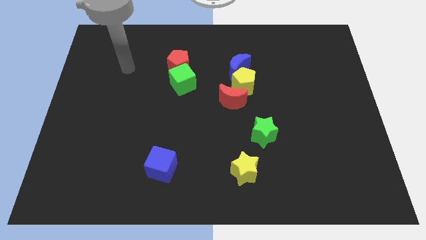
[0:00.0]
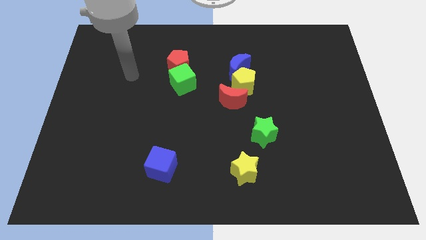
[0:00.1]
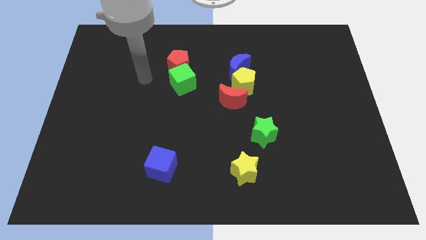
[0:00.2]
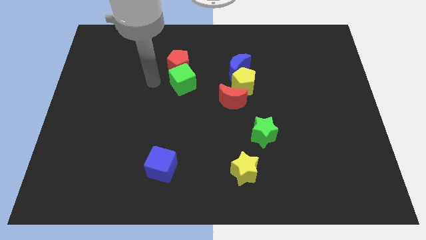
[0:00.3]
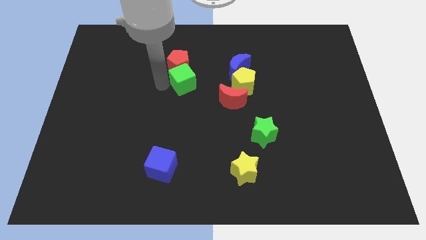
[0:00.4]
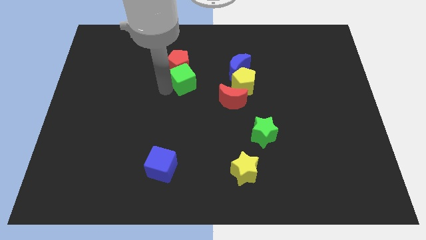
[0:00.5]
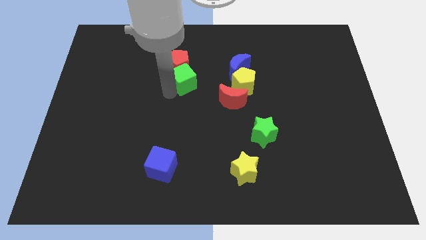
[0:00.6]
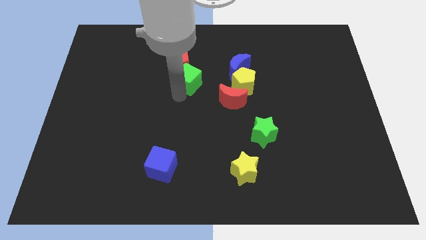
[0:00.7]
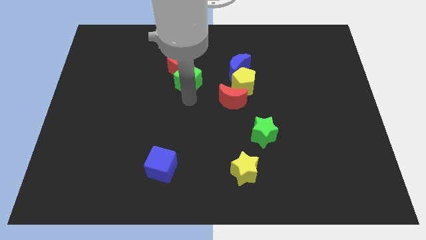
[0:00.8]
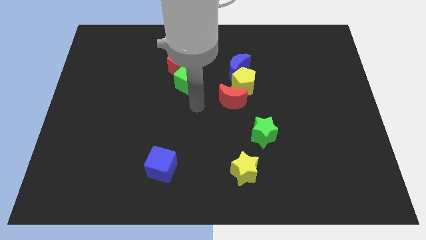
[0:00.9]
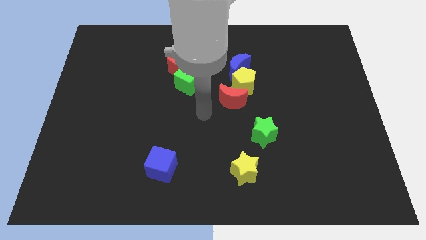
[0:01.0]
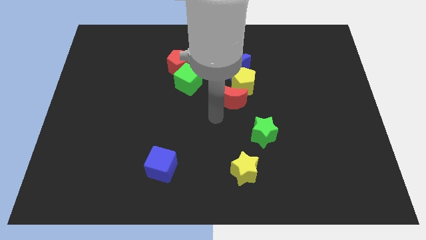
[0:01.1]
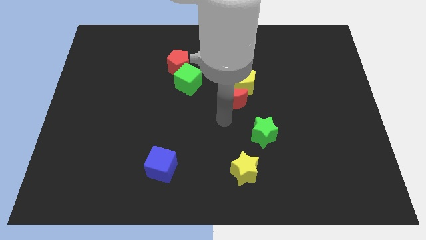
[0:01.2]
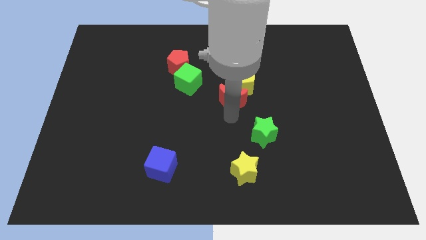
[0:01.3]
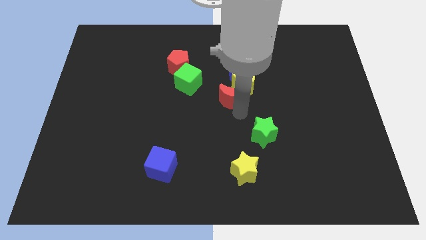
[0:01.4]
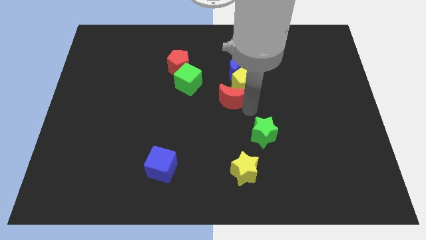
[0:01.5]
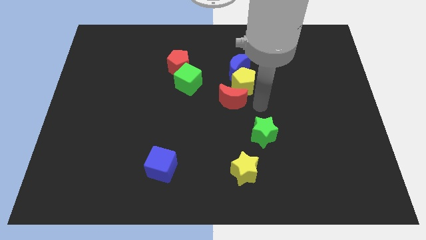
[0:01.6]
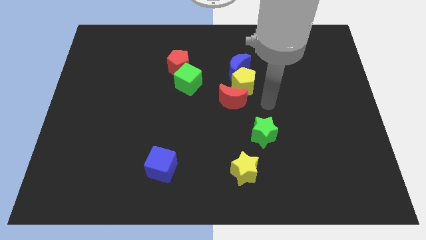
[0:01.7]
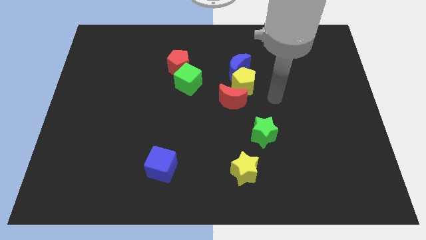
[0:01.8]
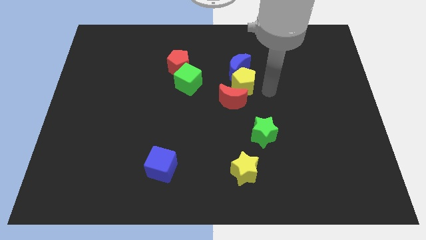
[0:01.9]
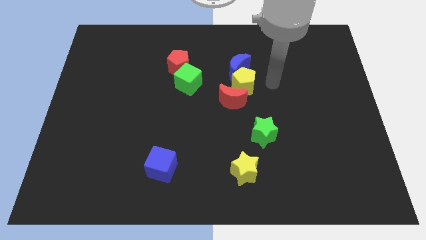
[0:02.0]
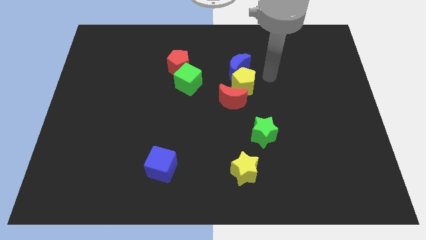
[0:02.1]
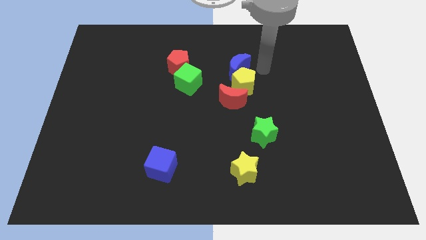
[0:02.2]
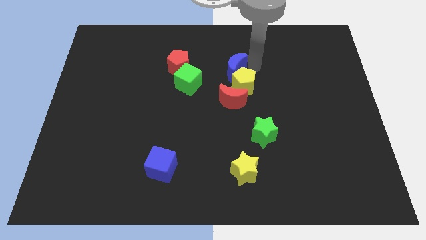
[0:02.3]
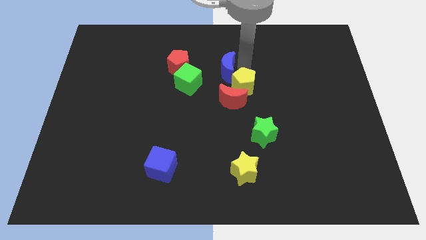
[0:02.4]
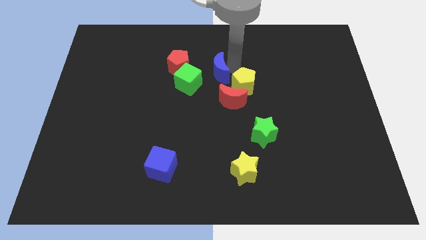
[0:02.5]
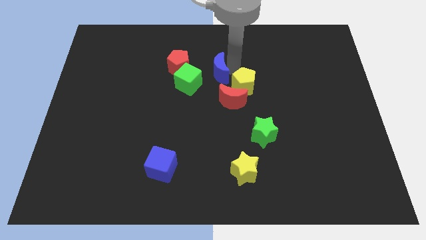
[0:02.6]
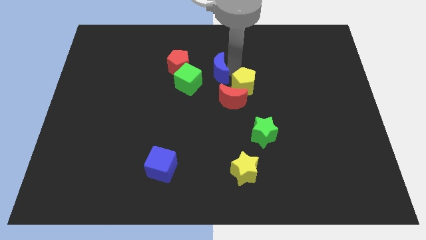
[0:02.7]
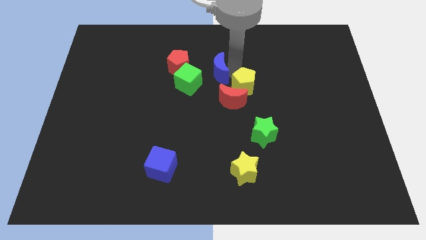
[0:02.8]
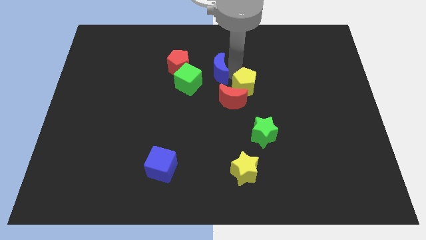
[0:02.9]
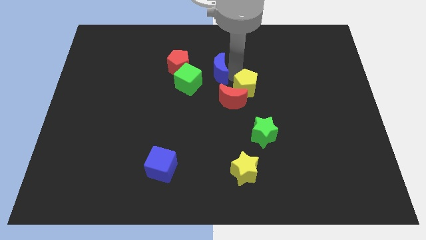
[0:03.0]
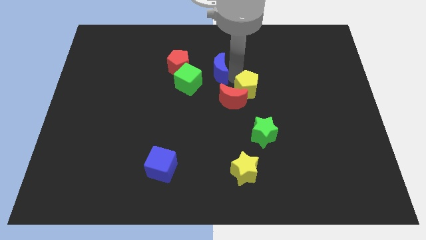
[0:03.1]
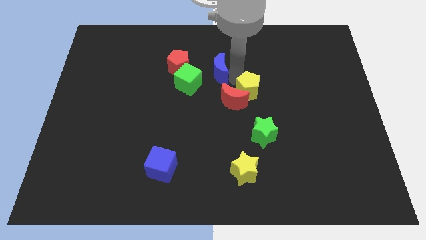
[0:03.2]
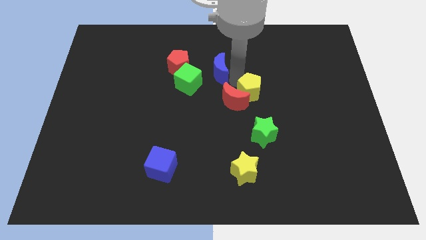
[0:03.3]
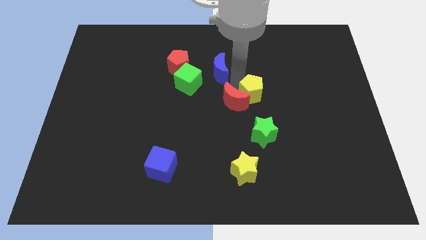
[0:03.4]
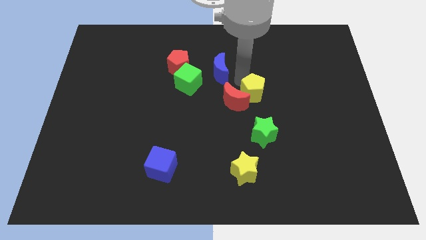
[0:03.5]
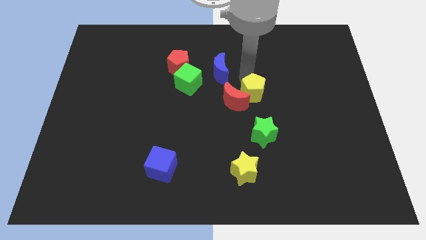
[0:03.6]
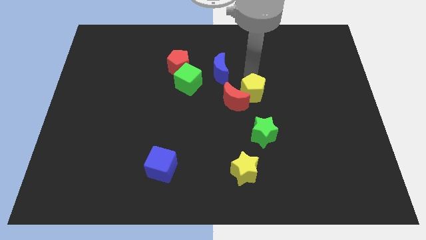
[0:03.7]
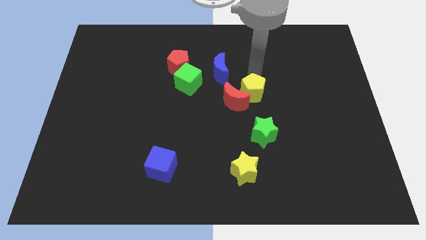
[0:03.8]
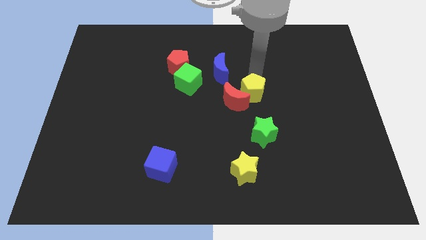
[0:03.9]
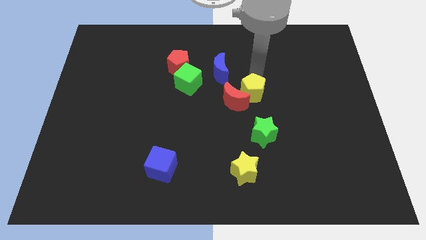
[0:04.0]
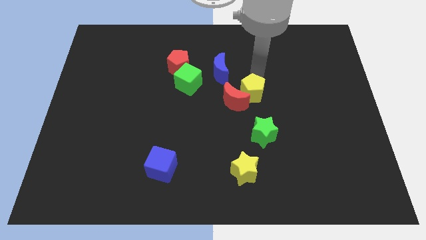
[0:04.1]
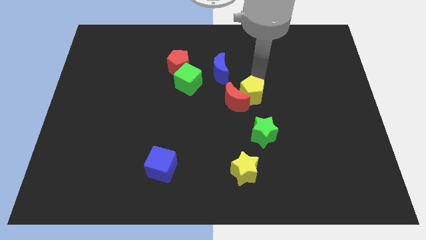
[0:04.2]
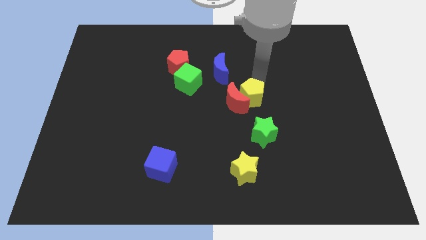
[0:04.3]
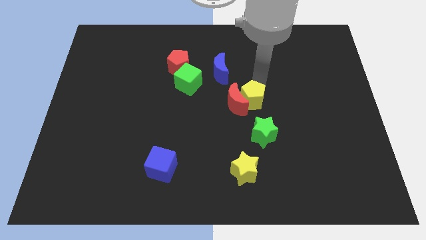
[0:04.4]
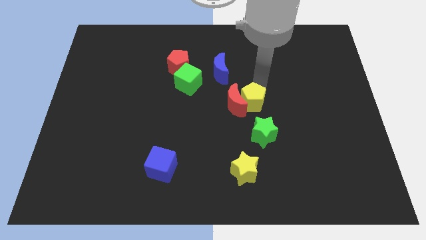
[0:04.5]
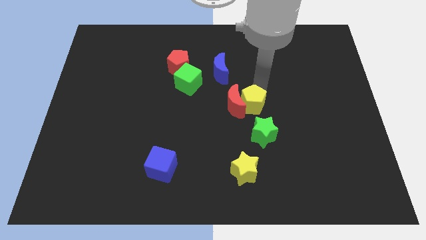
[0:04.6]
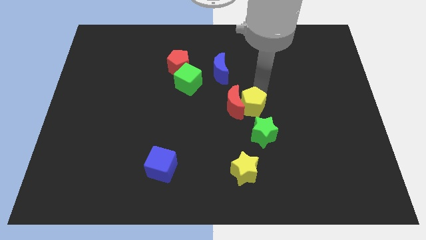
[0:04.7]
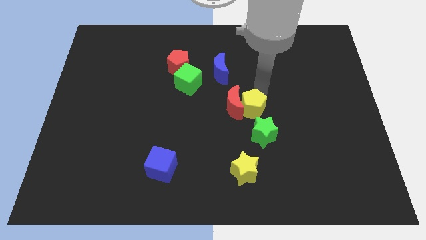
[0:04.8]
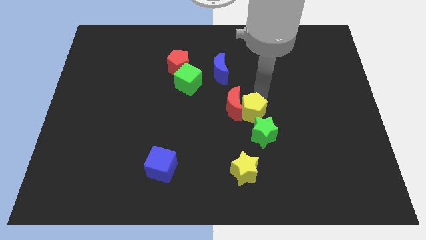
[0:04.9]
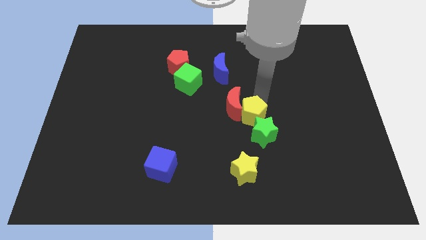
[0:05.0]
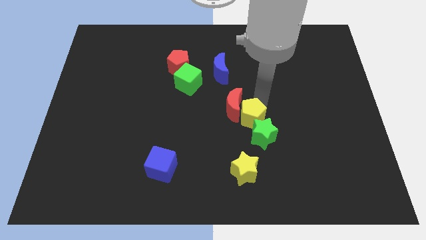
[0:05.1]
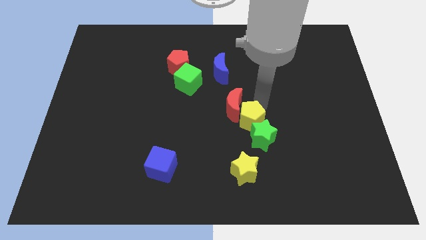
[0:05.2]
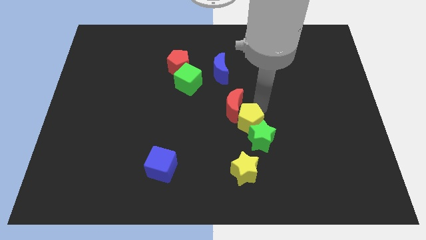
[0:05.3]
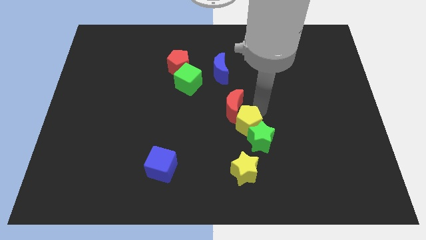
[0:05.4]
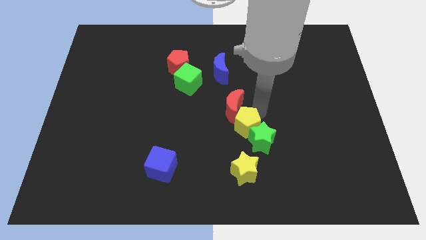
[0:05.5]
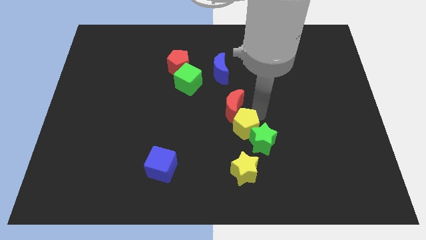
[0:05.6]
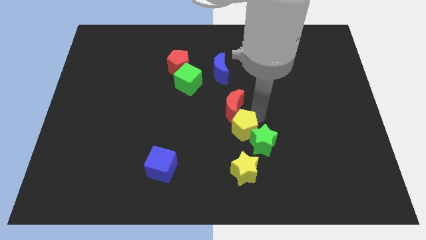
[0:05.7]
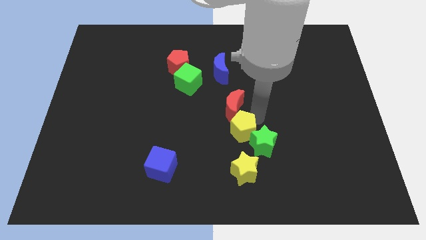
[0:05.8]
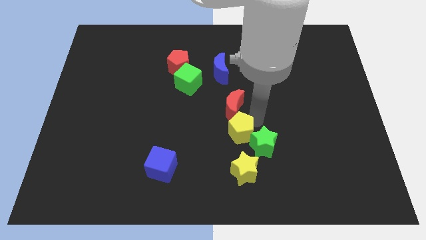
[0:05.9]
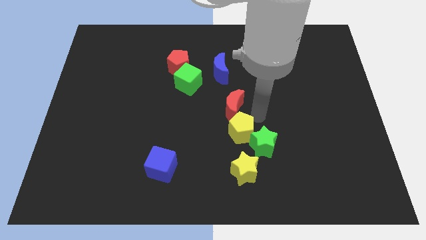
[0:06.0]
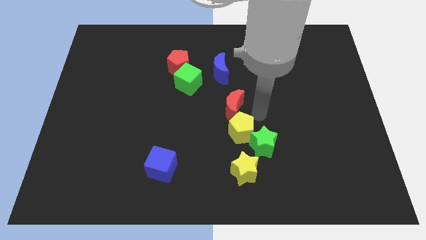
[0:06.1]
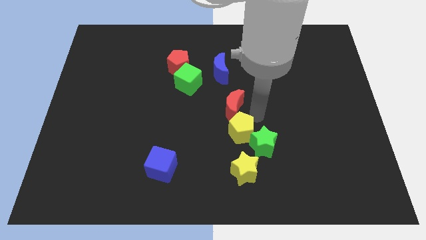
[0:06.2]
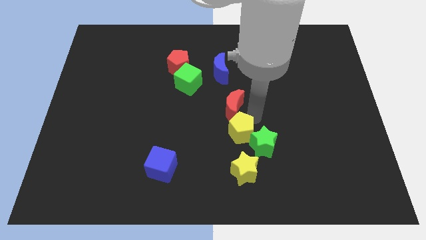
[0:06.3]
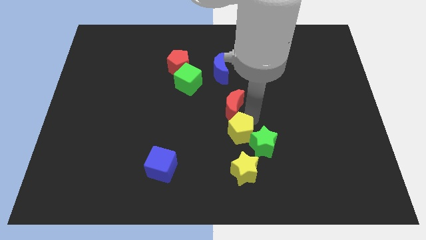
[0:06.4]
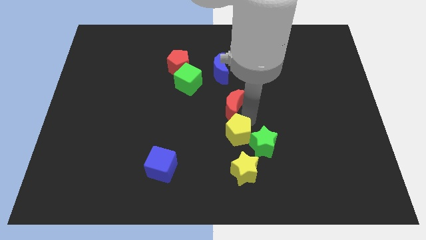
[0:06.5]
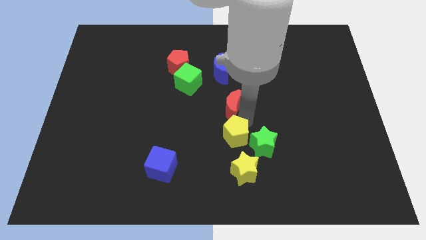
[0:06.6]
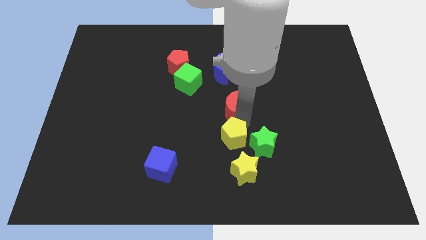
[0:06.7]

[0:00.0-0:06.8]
put the yellow pentagon to the top left side of the yellow star

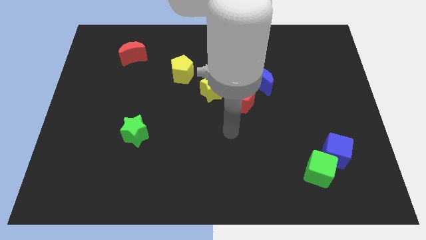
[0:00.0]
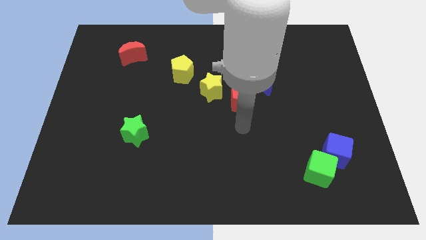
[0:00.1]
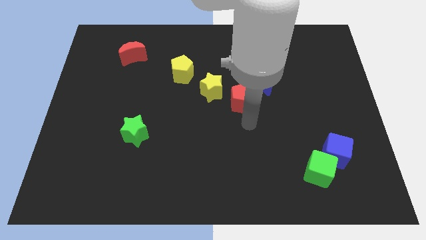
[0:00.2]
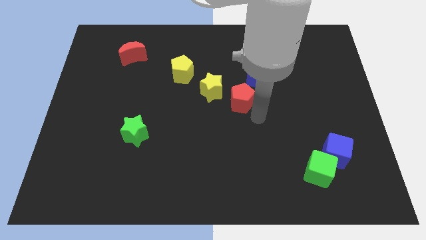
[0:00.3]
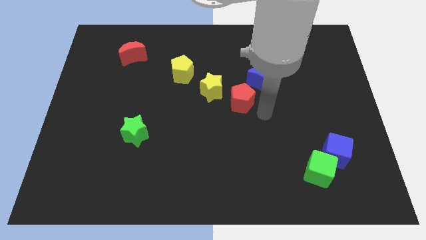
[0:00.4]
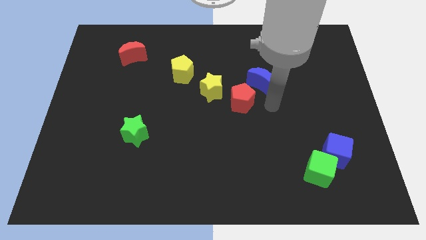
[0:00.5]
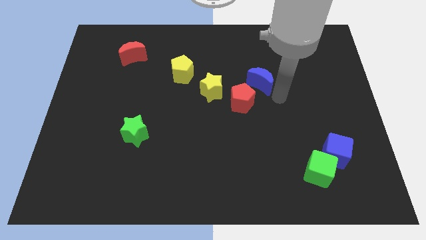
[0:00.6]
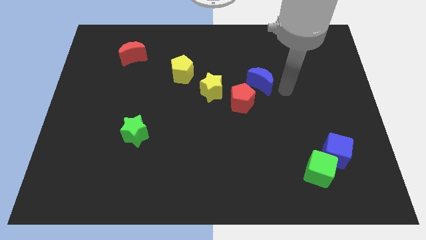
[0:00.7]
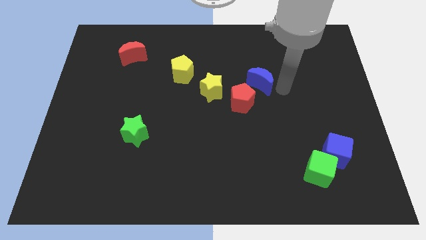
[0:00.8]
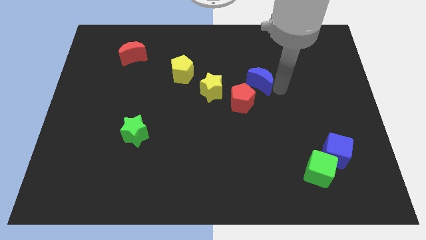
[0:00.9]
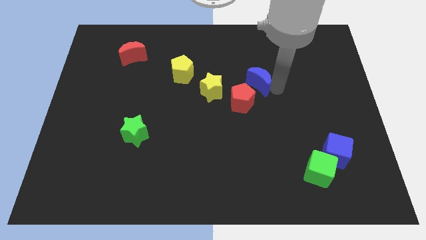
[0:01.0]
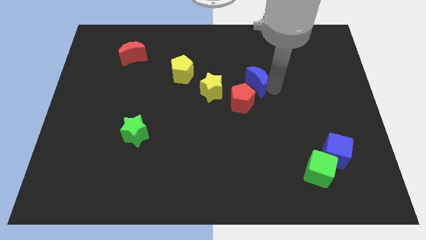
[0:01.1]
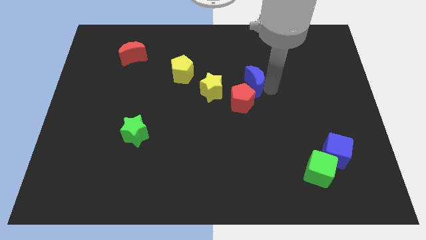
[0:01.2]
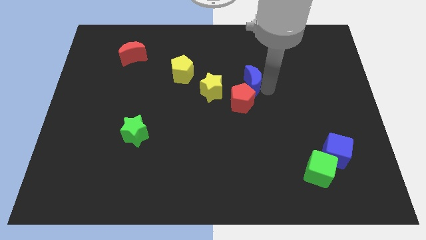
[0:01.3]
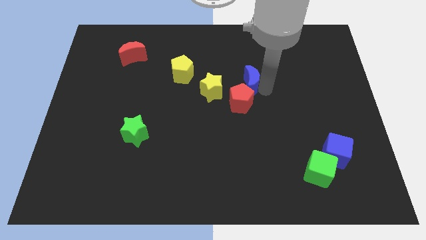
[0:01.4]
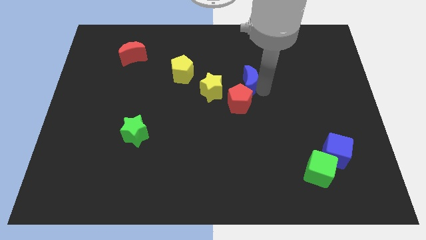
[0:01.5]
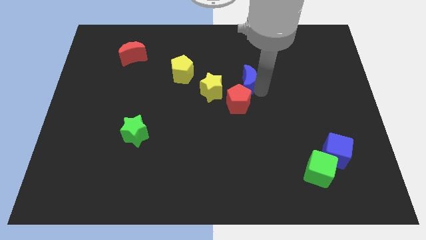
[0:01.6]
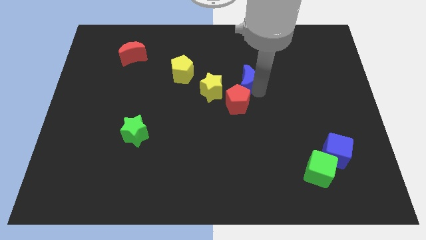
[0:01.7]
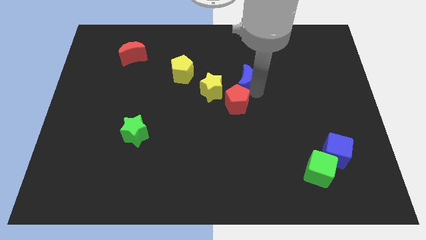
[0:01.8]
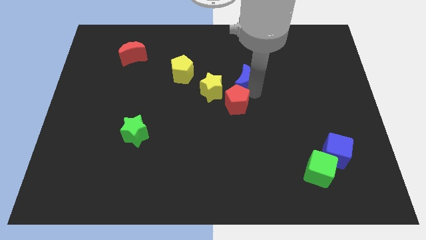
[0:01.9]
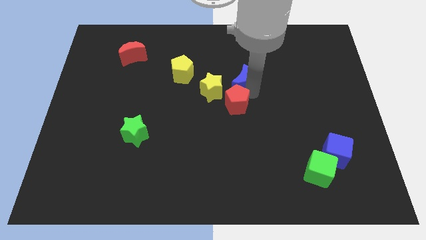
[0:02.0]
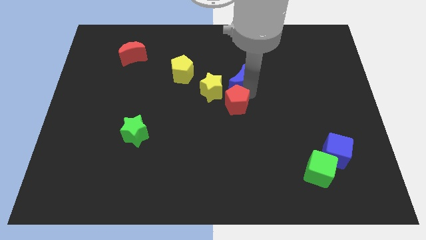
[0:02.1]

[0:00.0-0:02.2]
push the blue moon just right of the yellow pentagon
